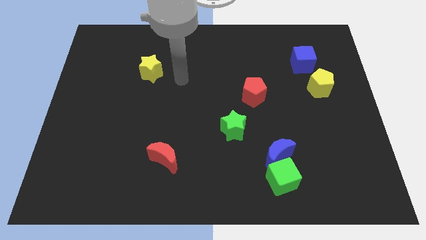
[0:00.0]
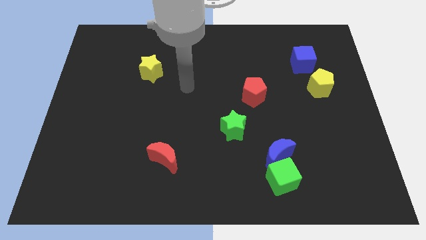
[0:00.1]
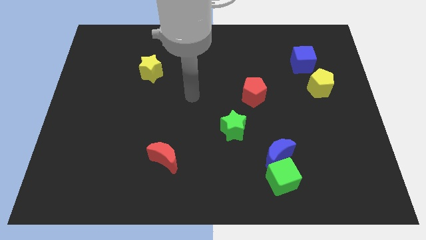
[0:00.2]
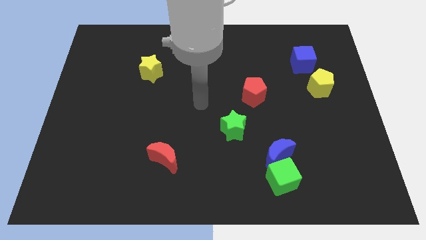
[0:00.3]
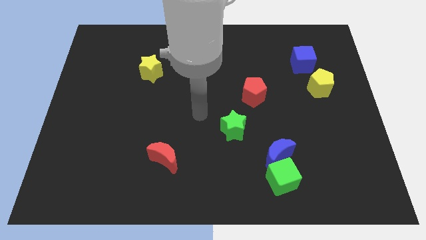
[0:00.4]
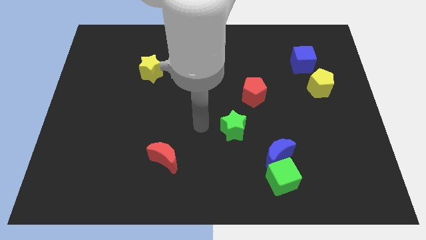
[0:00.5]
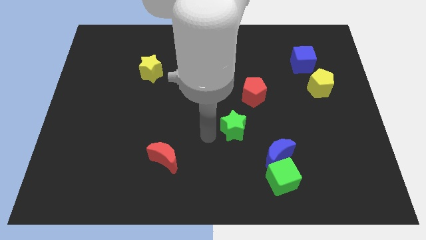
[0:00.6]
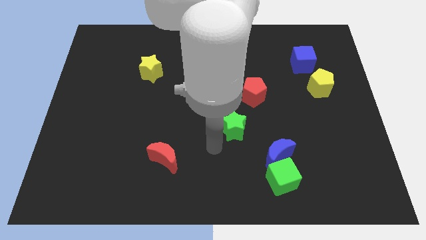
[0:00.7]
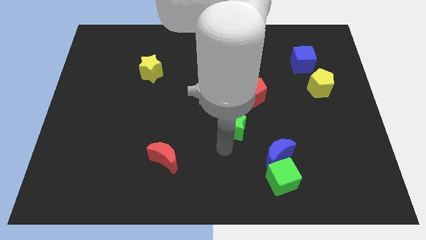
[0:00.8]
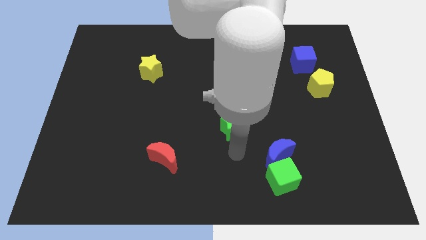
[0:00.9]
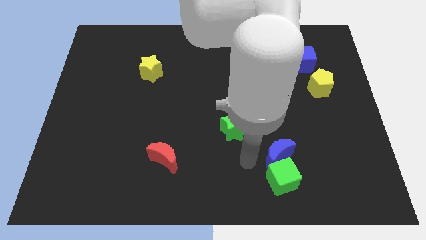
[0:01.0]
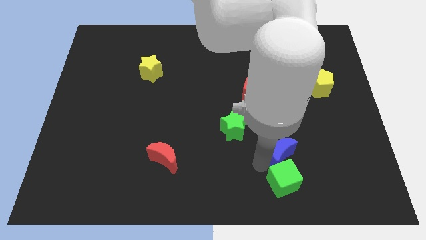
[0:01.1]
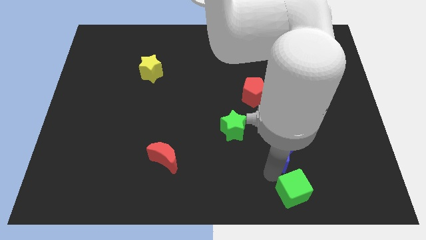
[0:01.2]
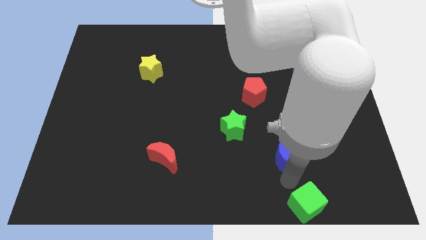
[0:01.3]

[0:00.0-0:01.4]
pull the blue moon apart from the green cube

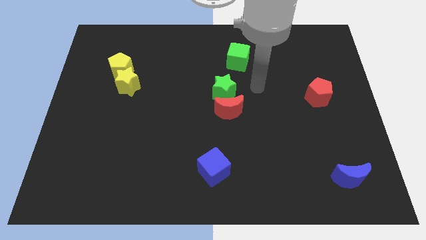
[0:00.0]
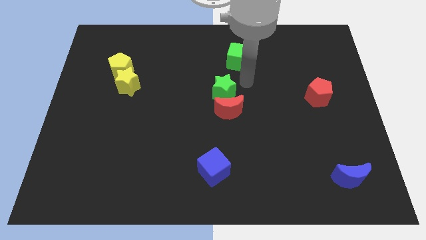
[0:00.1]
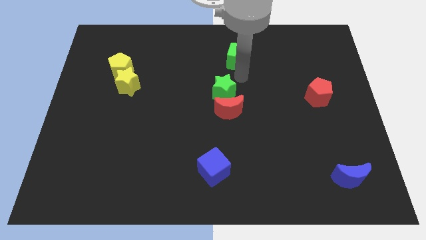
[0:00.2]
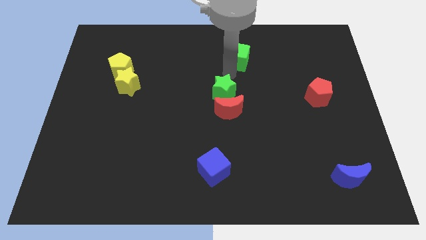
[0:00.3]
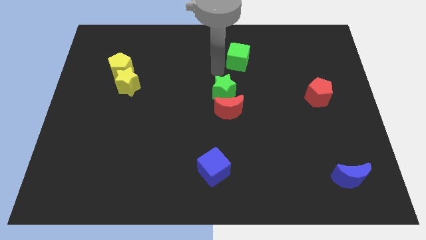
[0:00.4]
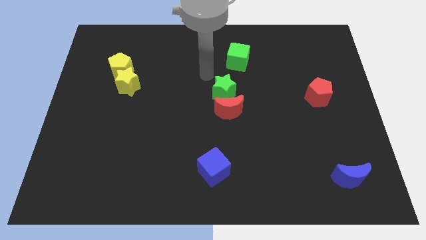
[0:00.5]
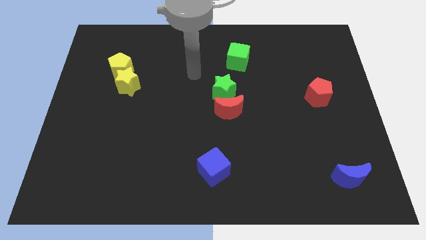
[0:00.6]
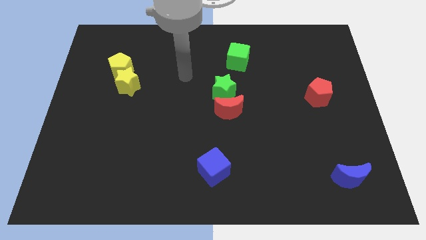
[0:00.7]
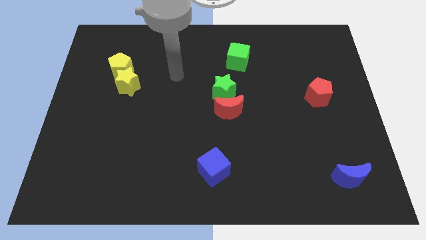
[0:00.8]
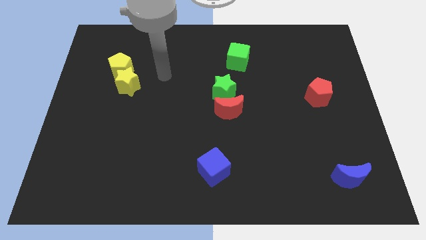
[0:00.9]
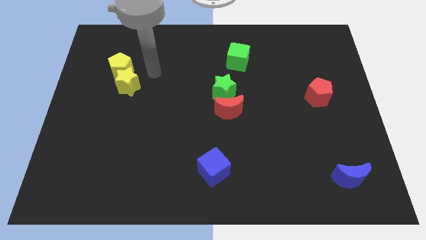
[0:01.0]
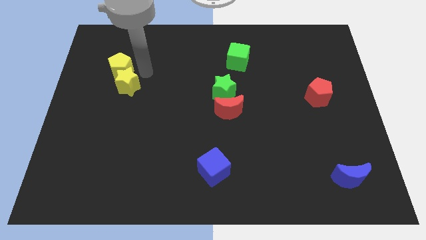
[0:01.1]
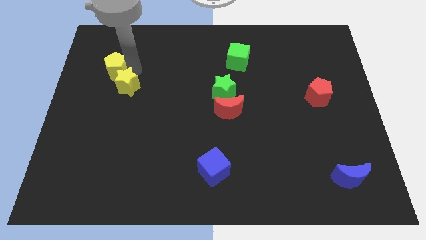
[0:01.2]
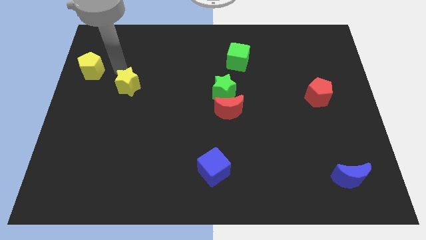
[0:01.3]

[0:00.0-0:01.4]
move the yellow star away from the yellow pentagon

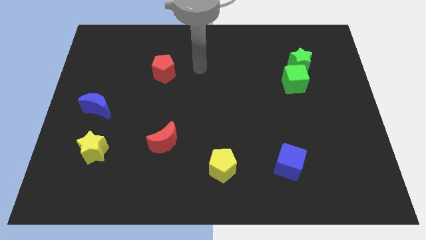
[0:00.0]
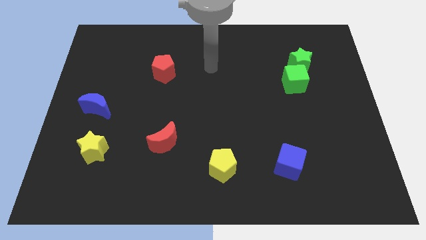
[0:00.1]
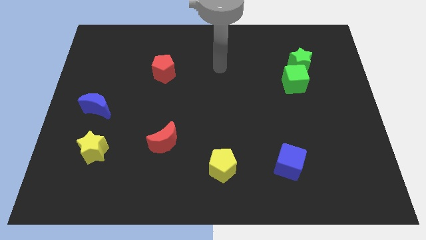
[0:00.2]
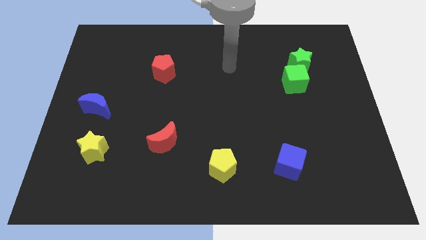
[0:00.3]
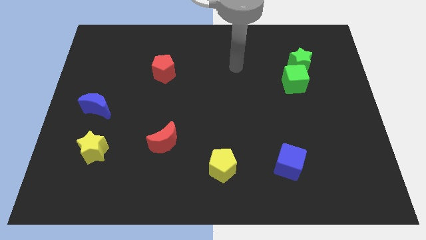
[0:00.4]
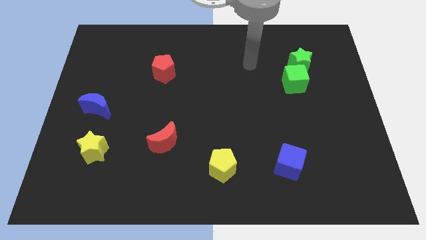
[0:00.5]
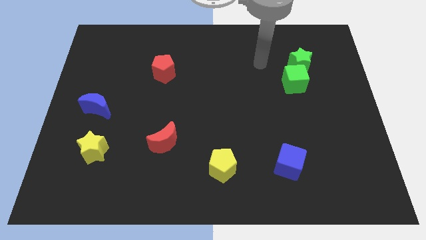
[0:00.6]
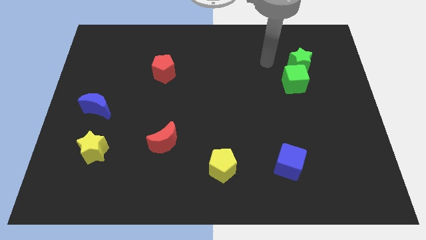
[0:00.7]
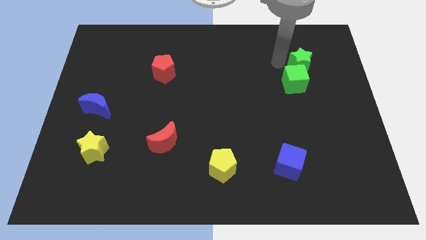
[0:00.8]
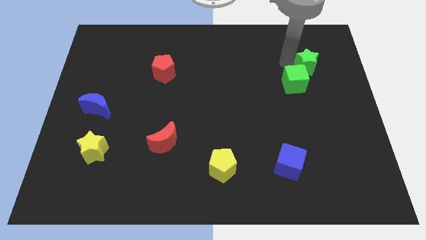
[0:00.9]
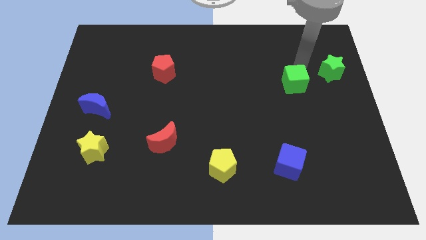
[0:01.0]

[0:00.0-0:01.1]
separate the green cube from the green star

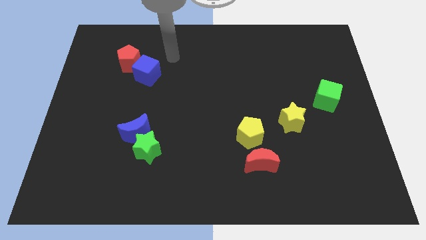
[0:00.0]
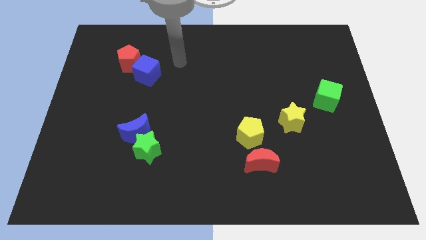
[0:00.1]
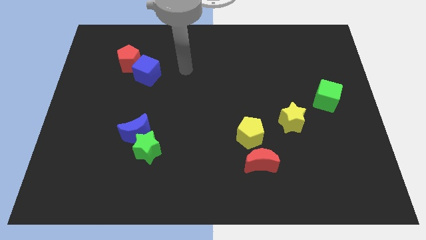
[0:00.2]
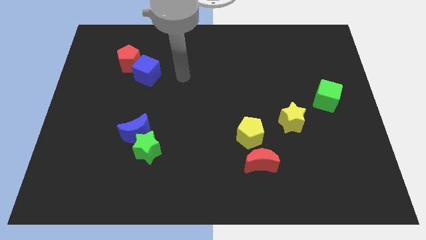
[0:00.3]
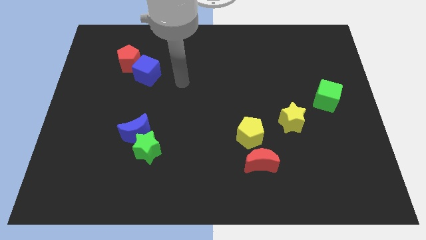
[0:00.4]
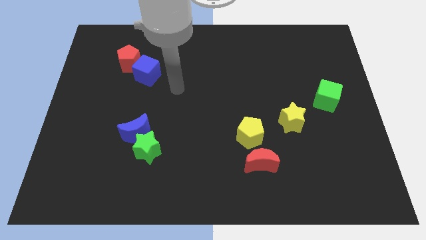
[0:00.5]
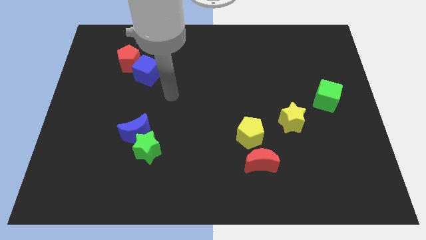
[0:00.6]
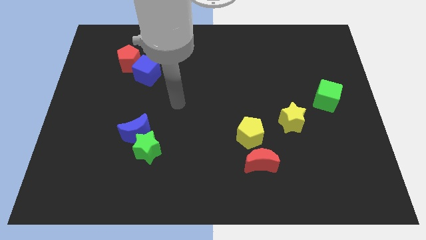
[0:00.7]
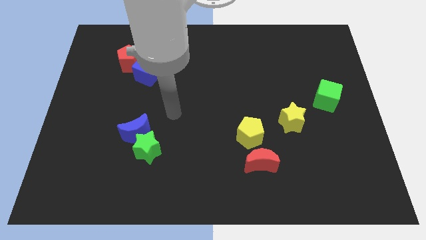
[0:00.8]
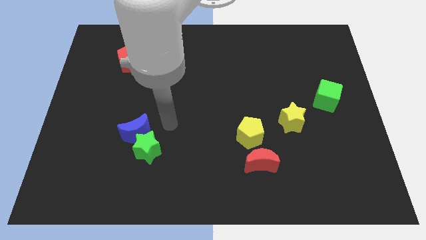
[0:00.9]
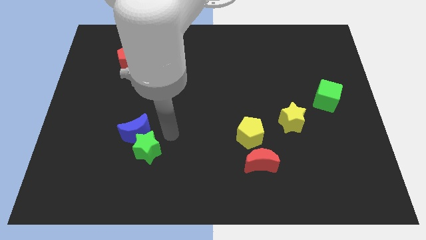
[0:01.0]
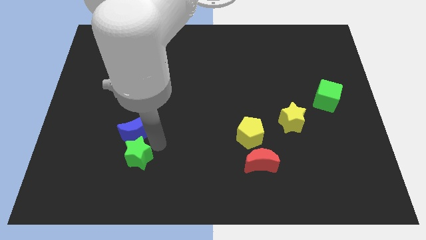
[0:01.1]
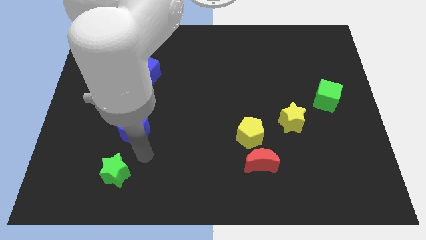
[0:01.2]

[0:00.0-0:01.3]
move the blue moon away from the green star

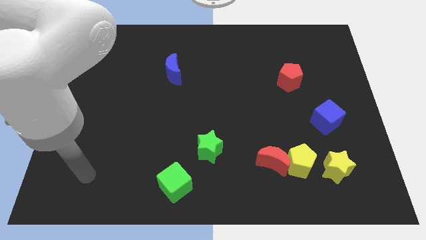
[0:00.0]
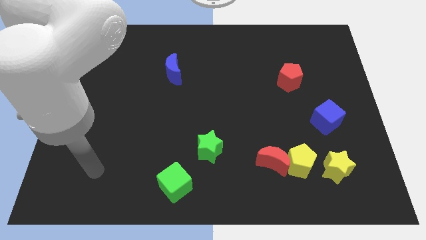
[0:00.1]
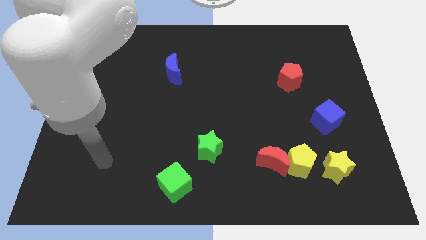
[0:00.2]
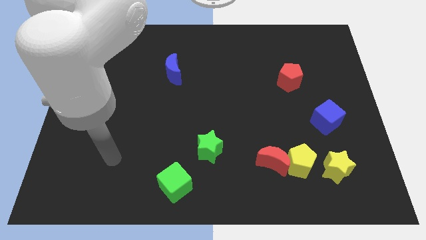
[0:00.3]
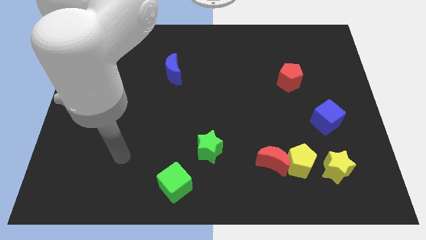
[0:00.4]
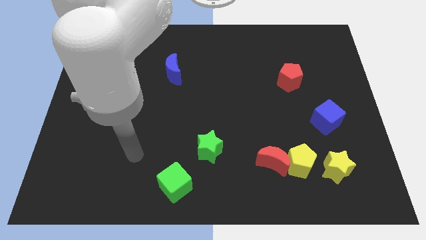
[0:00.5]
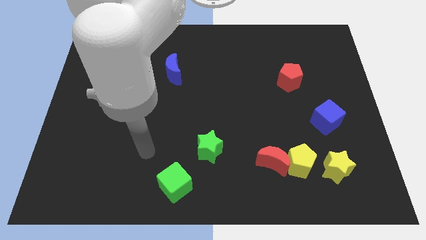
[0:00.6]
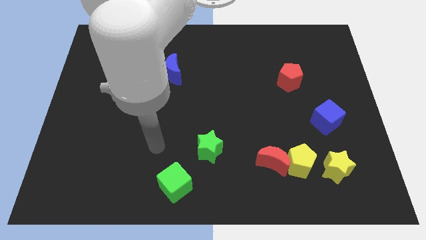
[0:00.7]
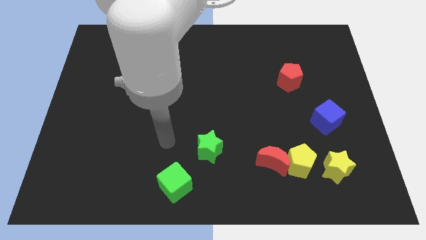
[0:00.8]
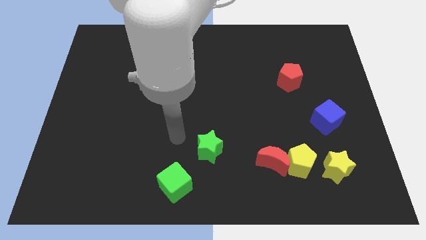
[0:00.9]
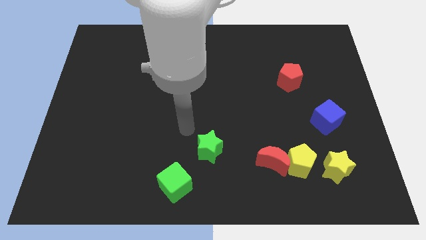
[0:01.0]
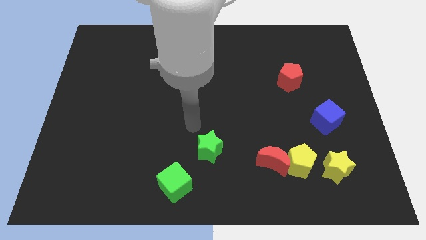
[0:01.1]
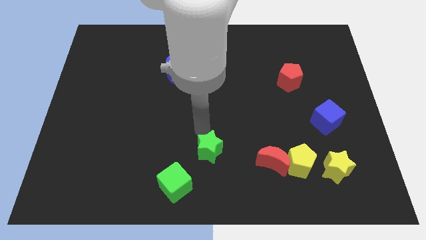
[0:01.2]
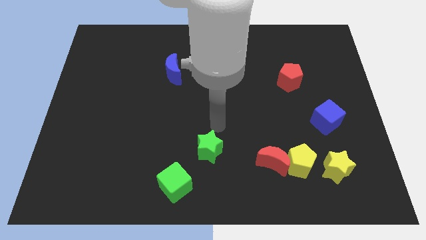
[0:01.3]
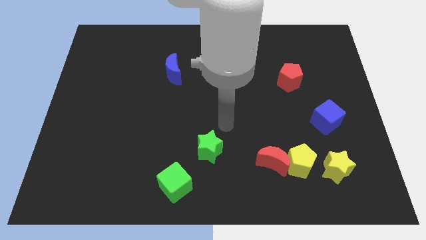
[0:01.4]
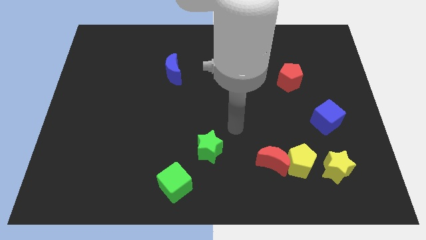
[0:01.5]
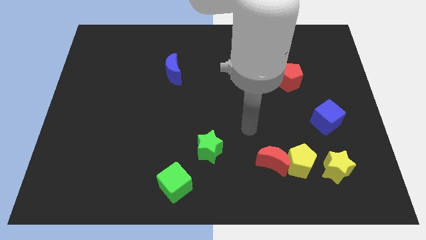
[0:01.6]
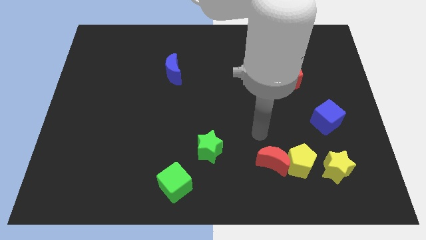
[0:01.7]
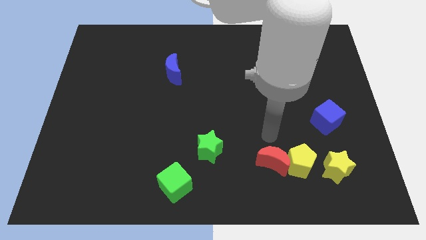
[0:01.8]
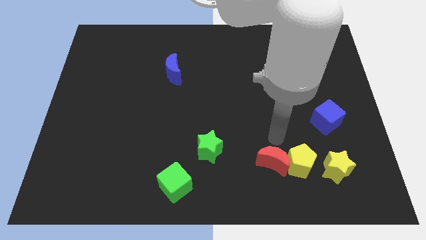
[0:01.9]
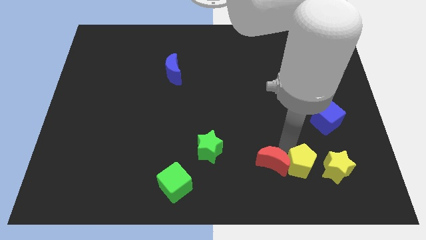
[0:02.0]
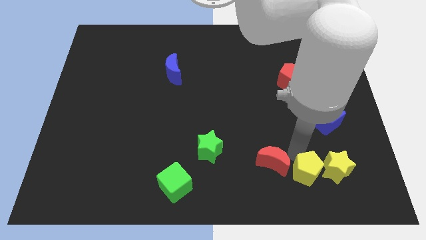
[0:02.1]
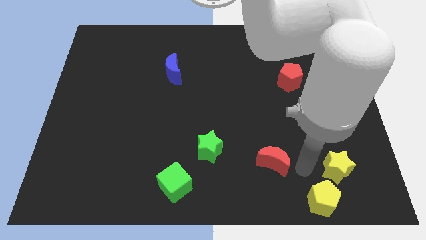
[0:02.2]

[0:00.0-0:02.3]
pull the red moon apart from the yellow pentagon

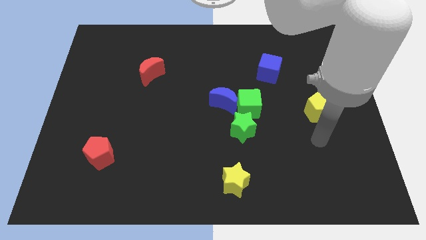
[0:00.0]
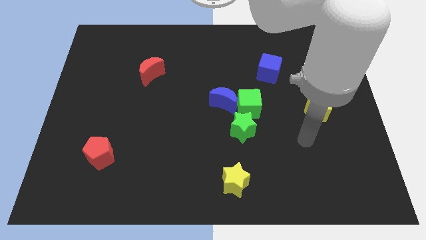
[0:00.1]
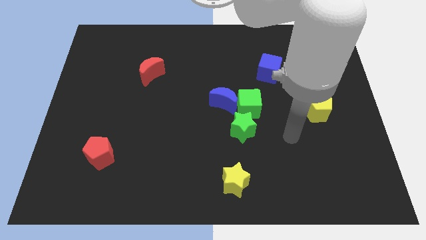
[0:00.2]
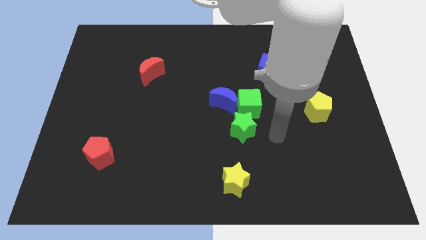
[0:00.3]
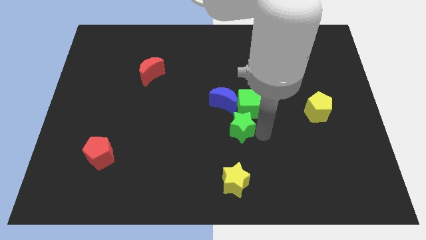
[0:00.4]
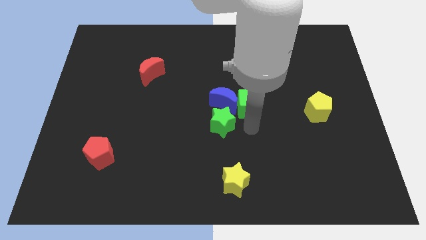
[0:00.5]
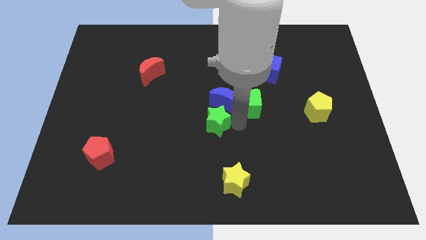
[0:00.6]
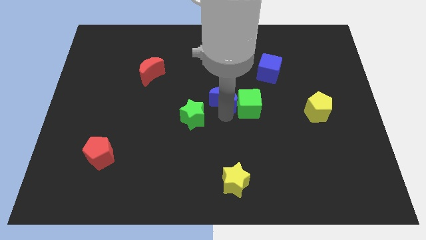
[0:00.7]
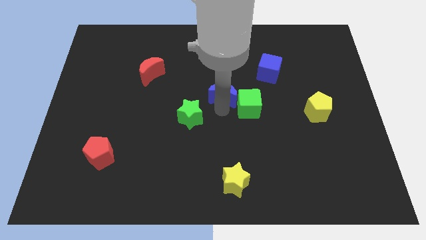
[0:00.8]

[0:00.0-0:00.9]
separate the green cube from the blue moon and green star

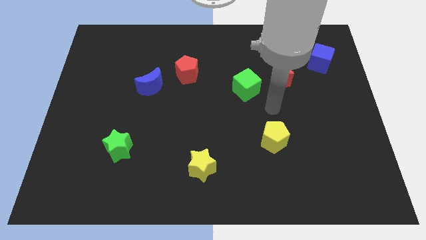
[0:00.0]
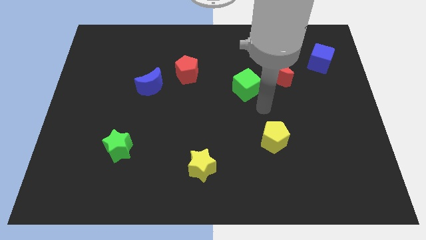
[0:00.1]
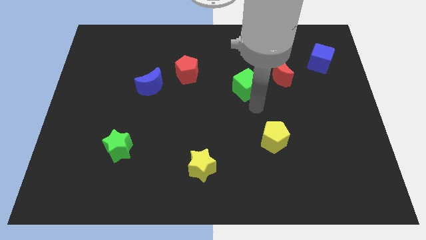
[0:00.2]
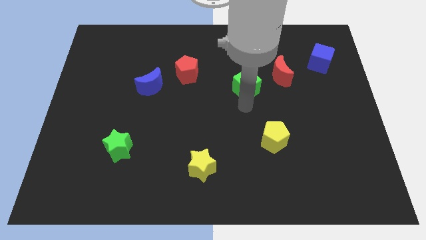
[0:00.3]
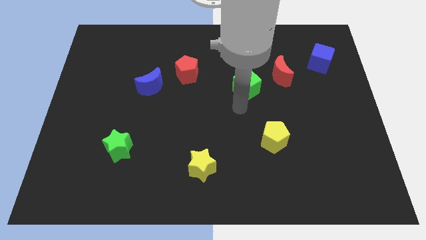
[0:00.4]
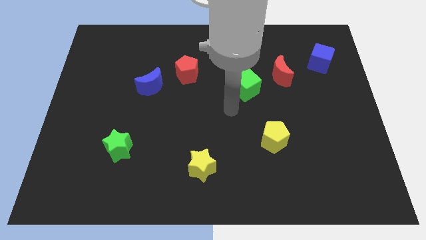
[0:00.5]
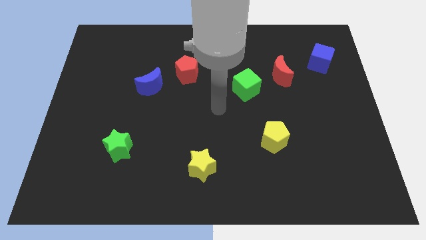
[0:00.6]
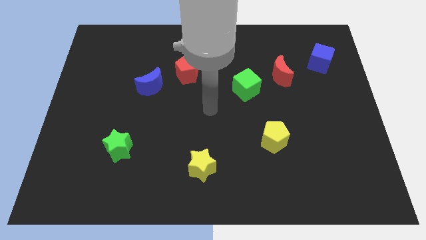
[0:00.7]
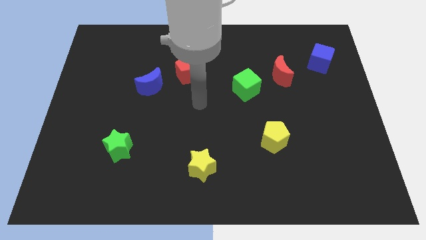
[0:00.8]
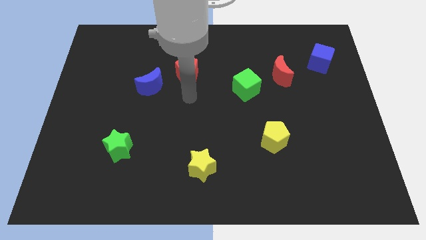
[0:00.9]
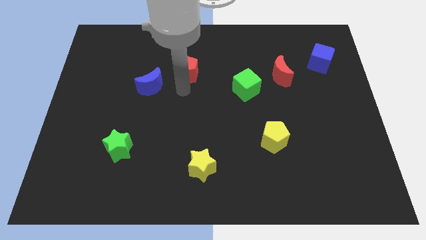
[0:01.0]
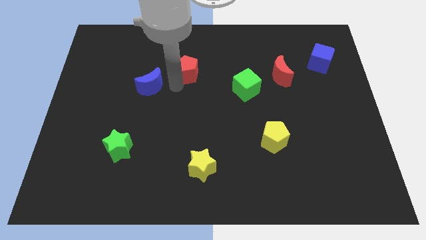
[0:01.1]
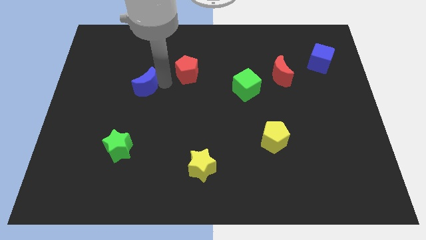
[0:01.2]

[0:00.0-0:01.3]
separate the red pentagon from the blue moon
